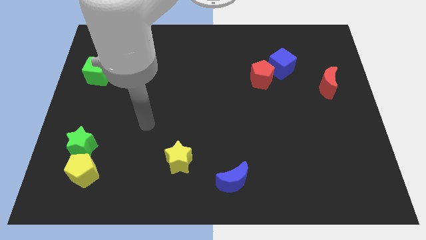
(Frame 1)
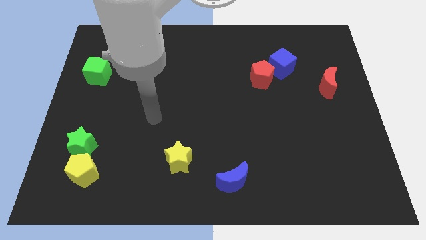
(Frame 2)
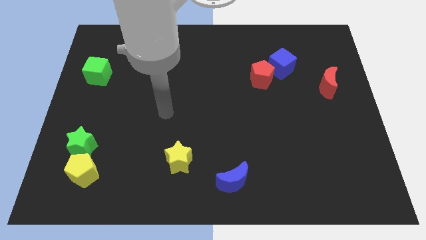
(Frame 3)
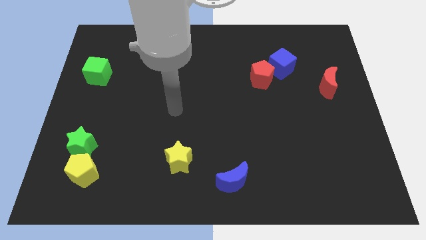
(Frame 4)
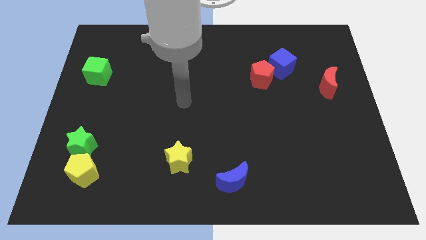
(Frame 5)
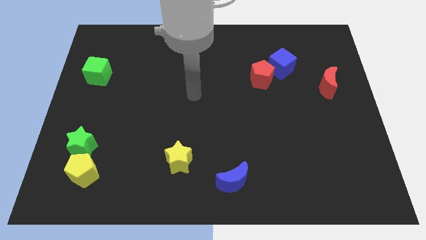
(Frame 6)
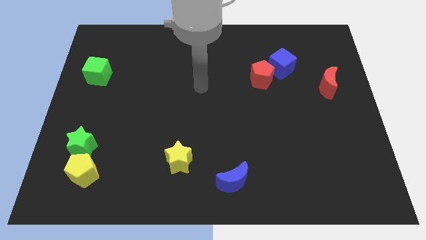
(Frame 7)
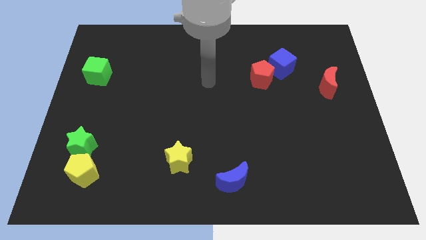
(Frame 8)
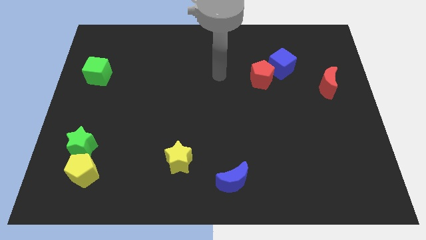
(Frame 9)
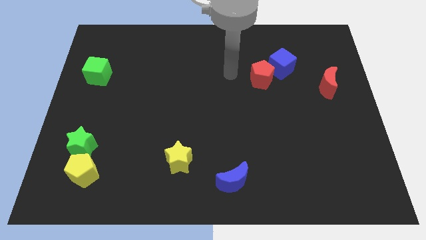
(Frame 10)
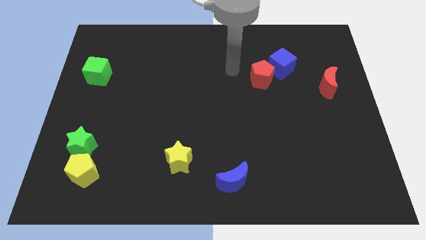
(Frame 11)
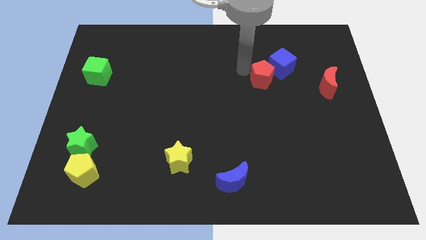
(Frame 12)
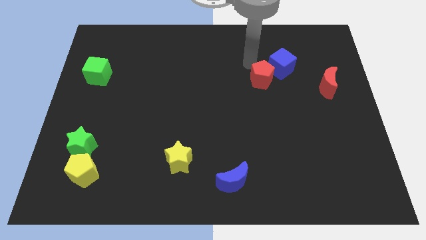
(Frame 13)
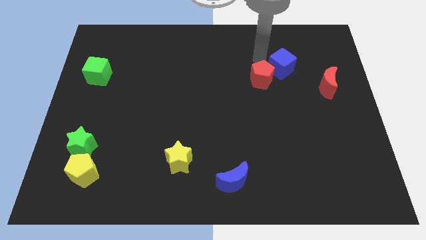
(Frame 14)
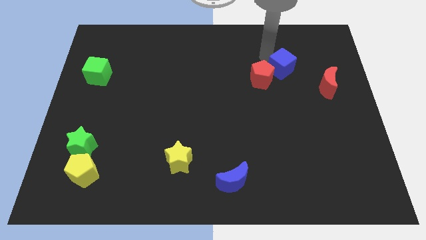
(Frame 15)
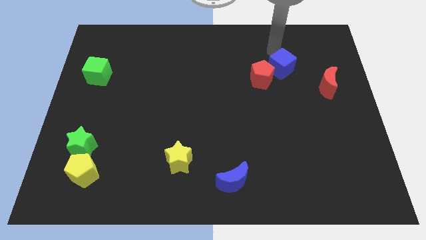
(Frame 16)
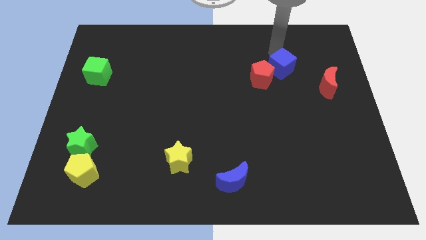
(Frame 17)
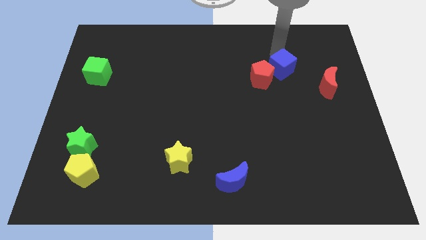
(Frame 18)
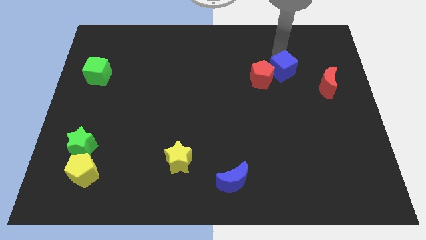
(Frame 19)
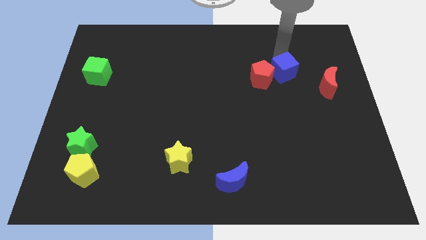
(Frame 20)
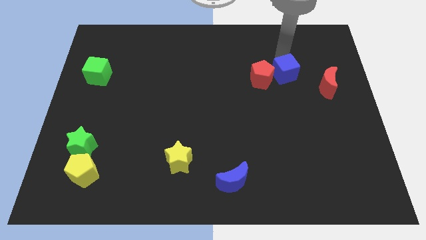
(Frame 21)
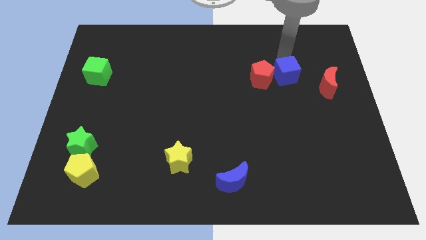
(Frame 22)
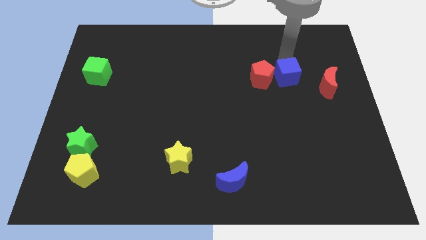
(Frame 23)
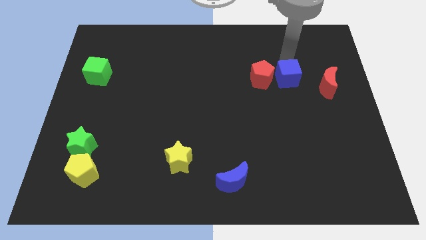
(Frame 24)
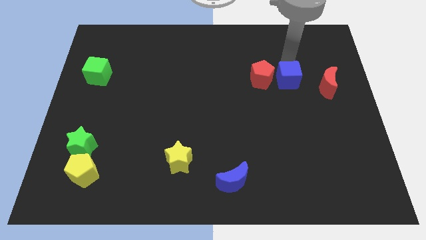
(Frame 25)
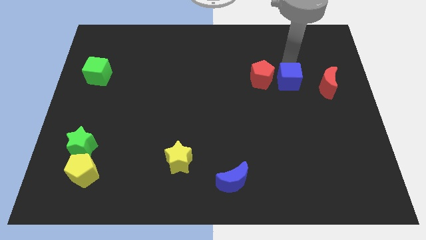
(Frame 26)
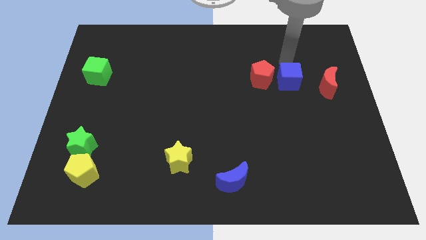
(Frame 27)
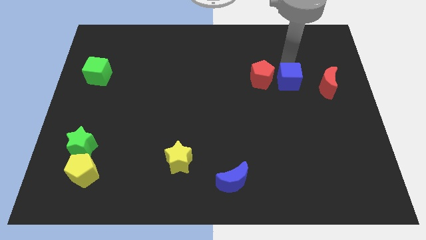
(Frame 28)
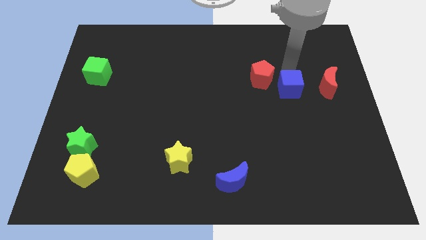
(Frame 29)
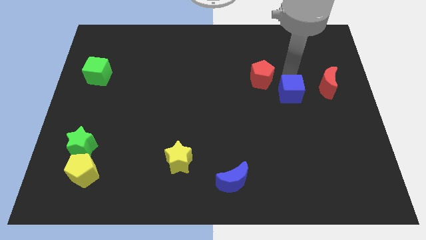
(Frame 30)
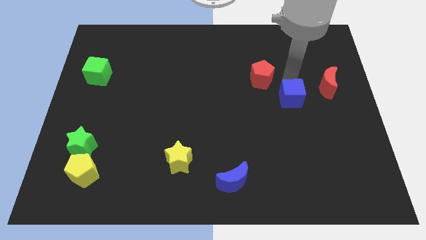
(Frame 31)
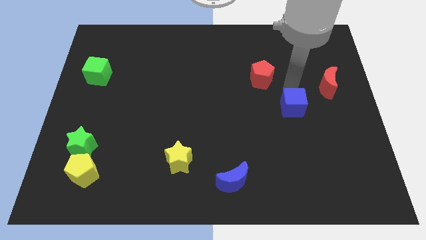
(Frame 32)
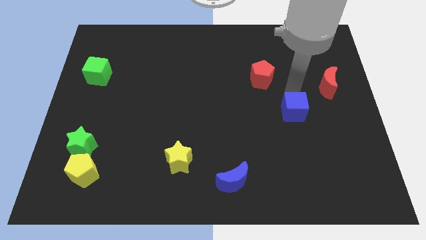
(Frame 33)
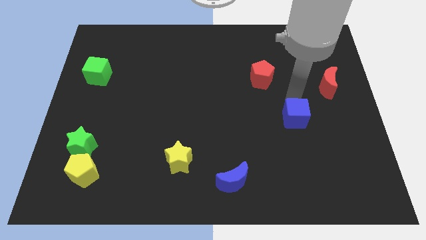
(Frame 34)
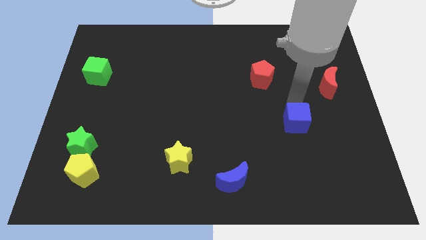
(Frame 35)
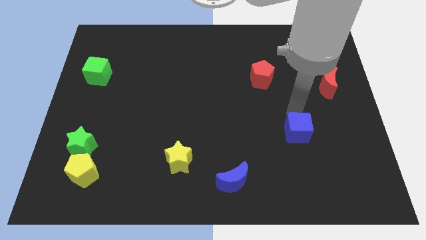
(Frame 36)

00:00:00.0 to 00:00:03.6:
slide the blue cube downwards

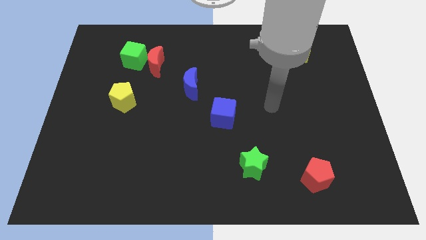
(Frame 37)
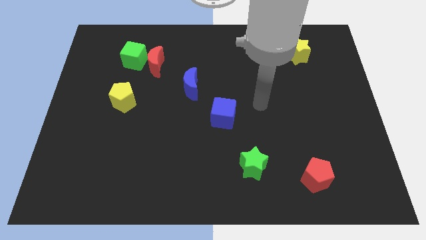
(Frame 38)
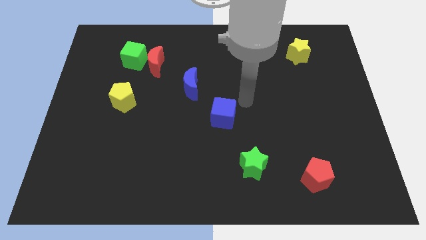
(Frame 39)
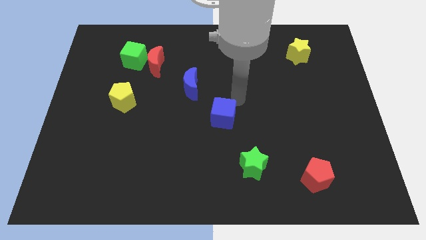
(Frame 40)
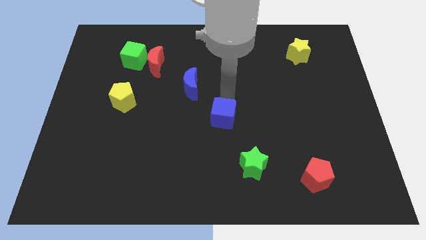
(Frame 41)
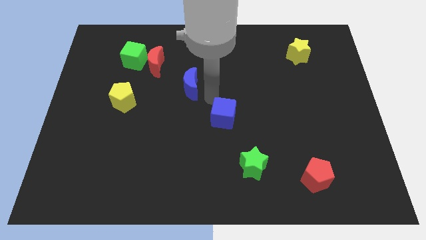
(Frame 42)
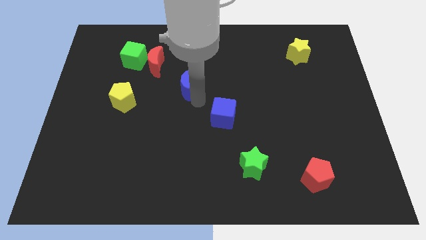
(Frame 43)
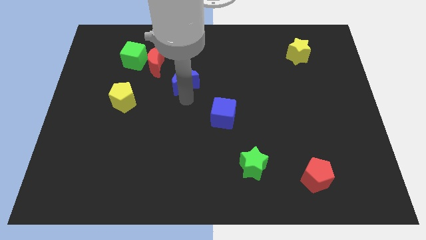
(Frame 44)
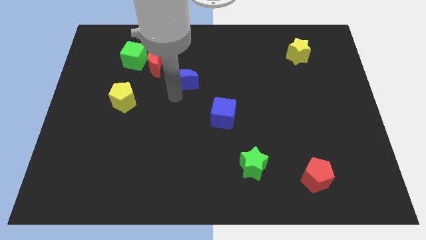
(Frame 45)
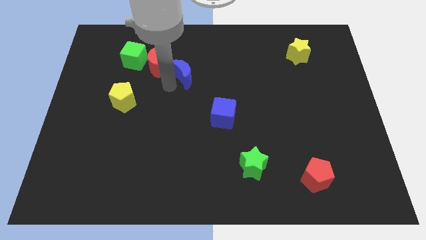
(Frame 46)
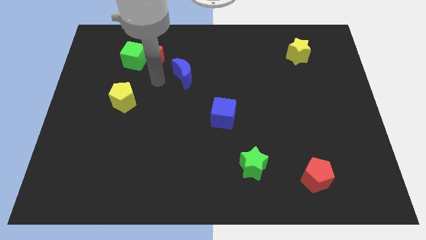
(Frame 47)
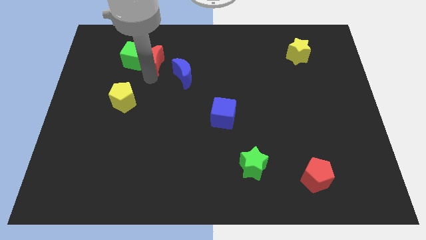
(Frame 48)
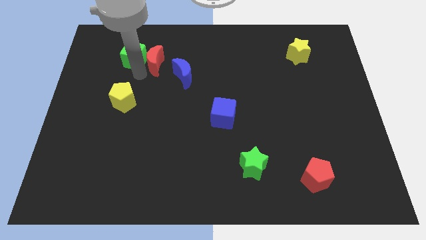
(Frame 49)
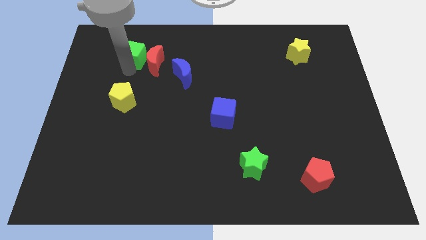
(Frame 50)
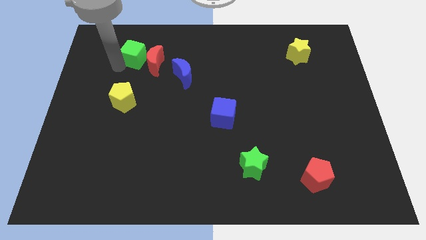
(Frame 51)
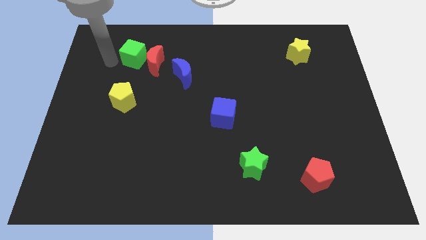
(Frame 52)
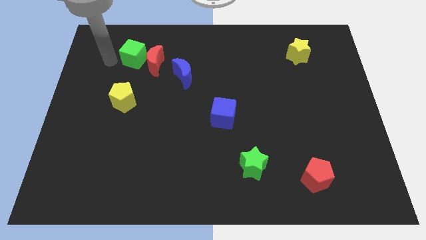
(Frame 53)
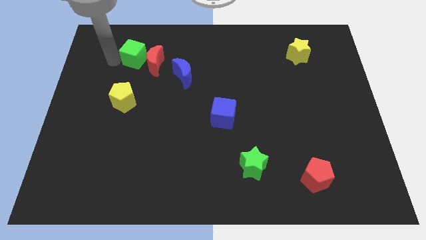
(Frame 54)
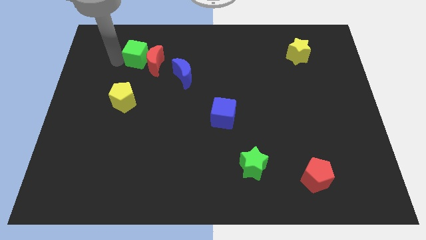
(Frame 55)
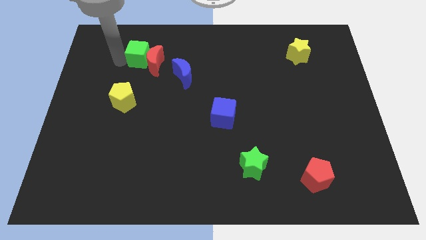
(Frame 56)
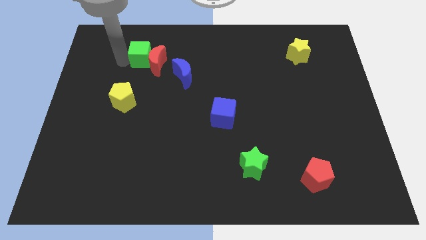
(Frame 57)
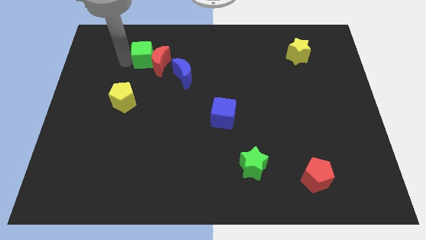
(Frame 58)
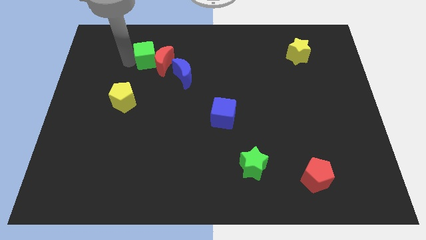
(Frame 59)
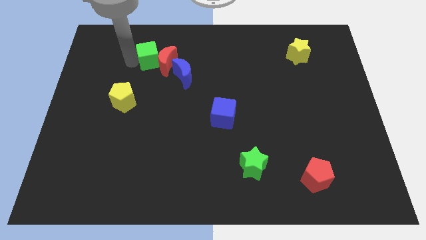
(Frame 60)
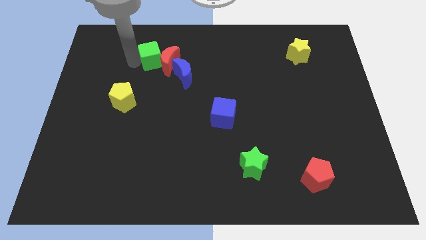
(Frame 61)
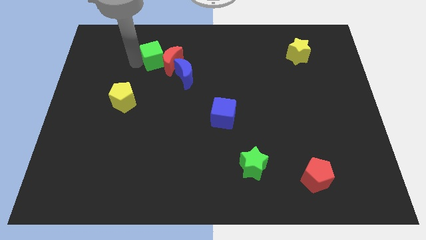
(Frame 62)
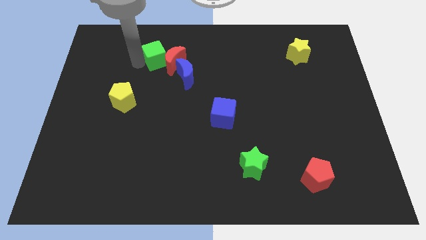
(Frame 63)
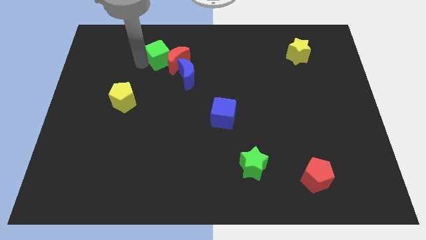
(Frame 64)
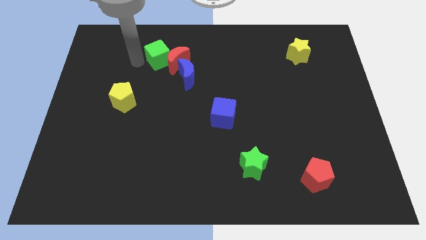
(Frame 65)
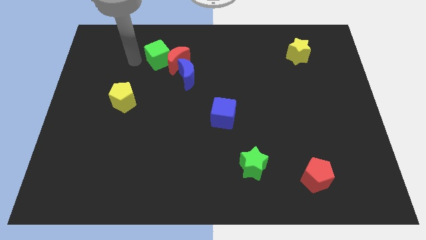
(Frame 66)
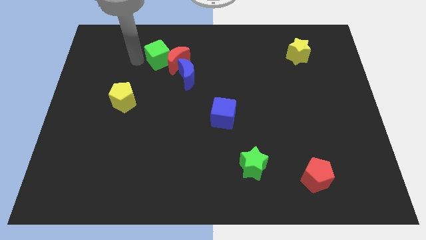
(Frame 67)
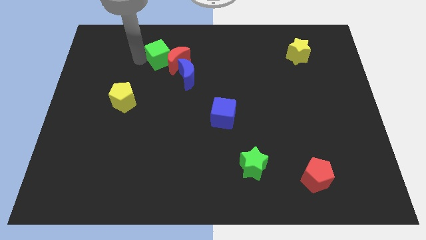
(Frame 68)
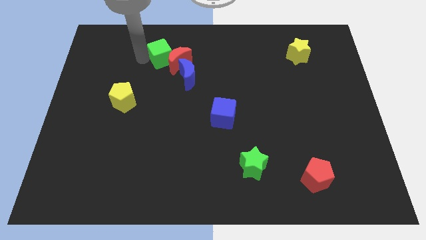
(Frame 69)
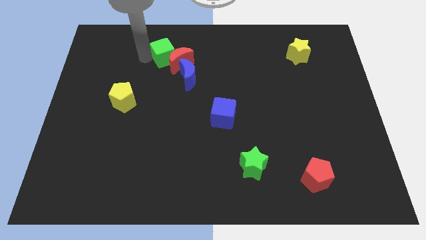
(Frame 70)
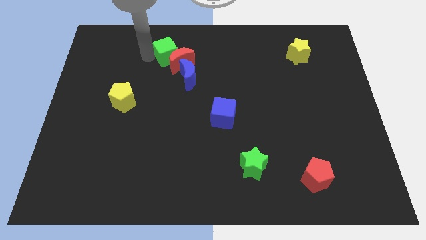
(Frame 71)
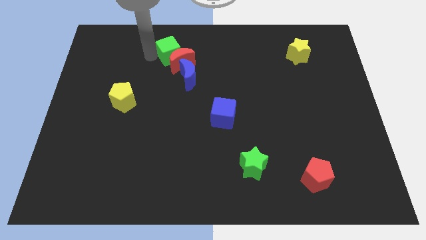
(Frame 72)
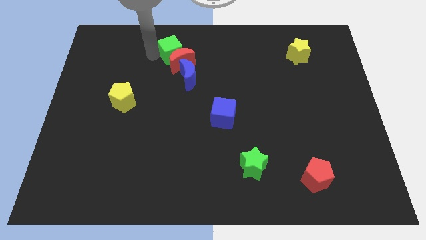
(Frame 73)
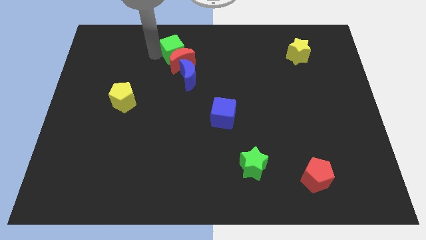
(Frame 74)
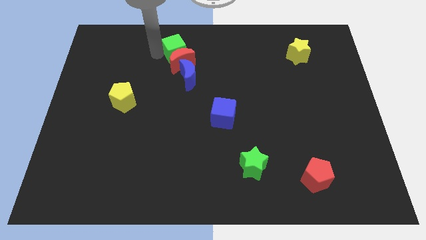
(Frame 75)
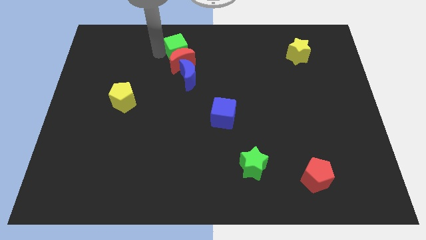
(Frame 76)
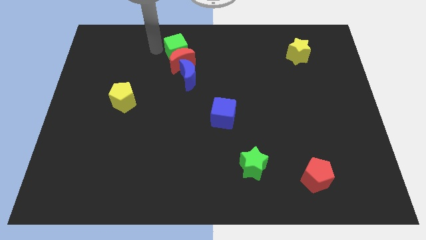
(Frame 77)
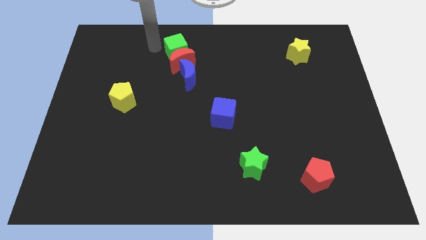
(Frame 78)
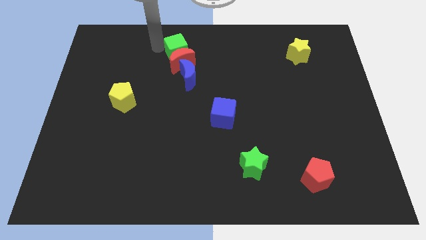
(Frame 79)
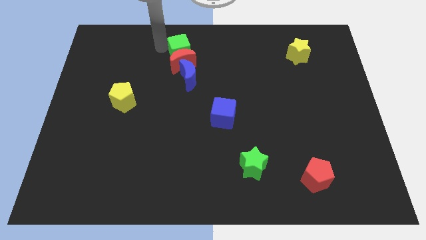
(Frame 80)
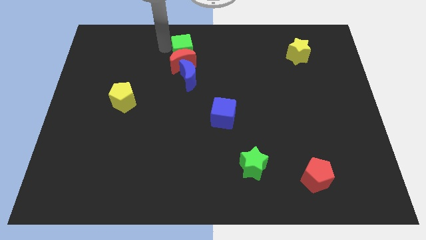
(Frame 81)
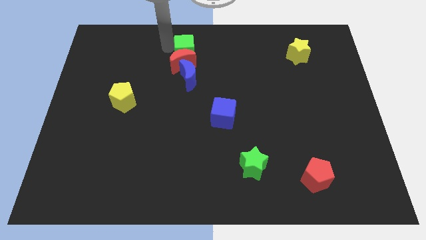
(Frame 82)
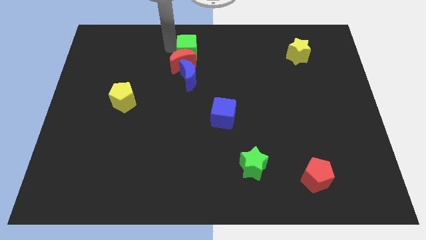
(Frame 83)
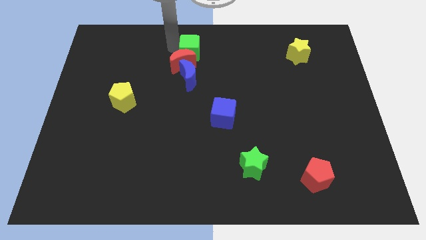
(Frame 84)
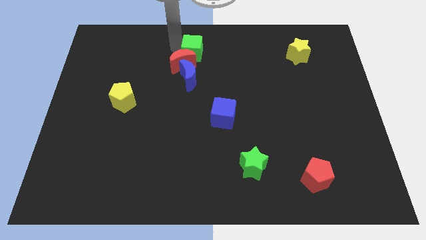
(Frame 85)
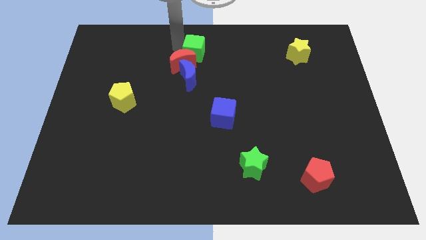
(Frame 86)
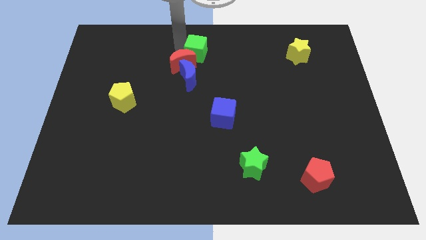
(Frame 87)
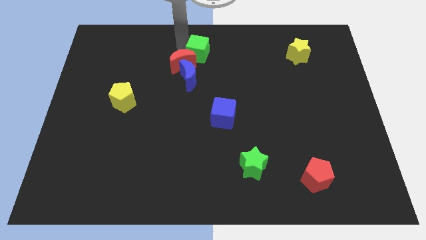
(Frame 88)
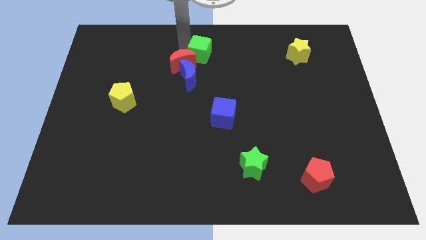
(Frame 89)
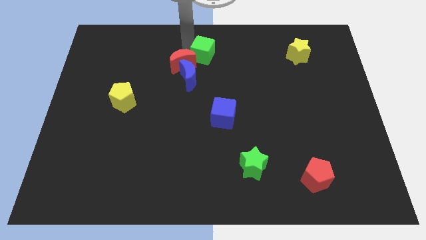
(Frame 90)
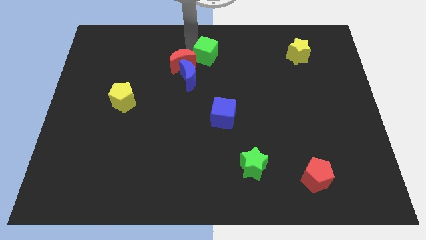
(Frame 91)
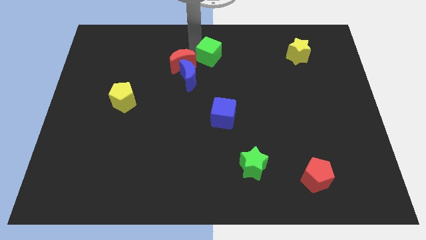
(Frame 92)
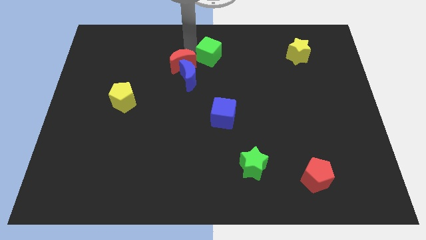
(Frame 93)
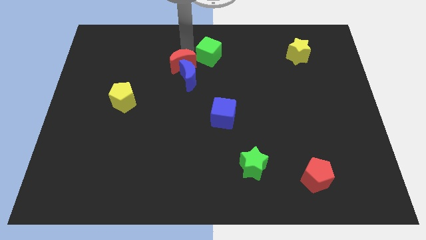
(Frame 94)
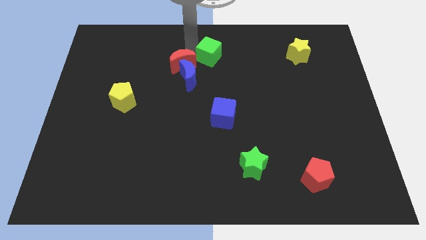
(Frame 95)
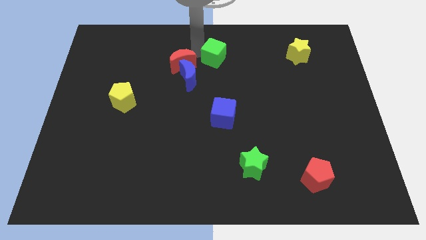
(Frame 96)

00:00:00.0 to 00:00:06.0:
slide the green cube right
